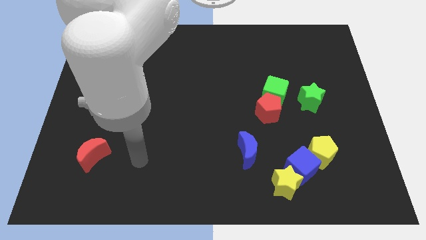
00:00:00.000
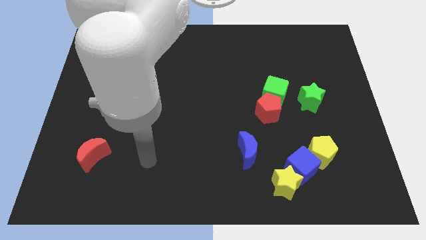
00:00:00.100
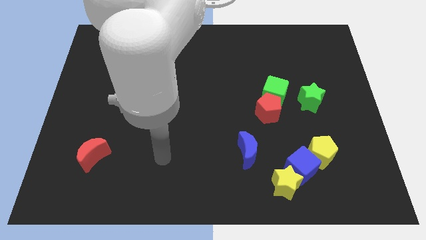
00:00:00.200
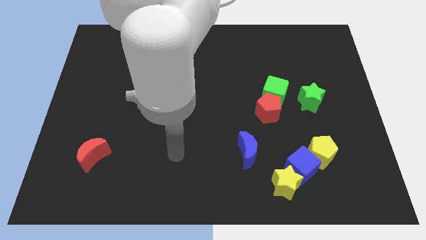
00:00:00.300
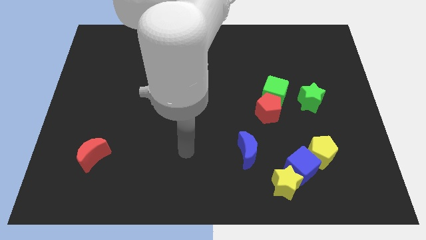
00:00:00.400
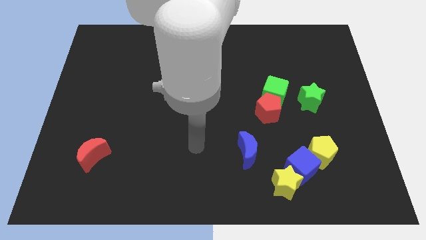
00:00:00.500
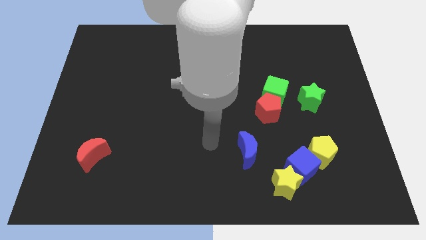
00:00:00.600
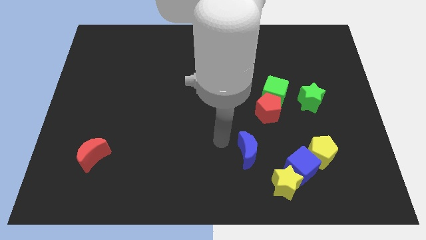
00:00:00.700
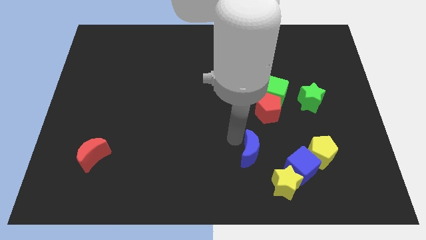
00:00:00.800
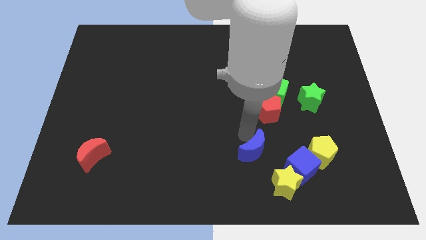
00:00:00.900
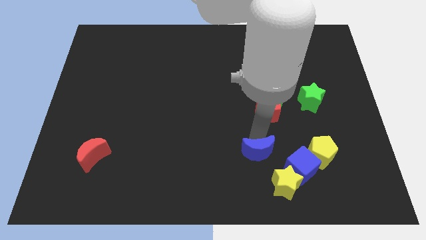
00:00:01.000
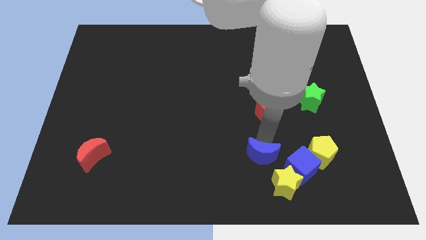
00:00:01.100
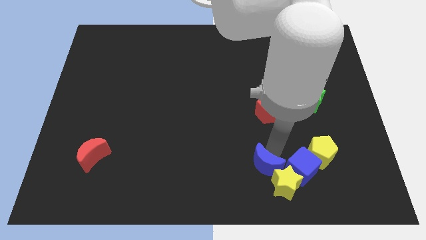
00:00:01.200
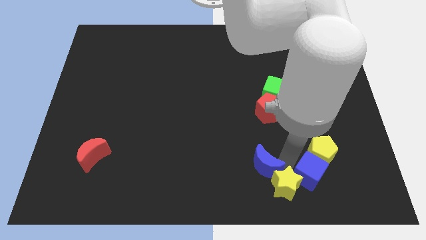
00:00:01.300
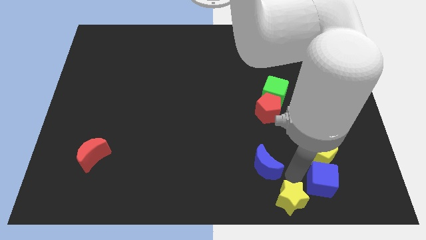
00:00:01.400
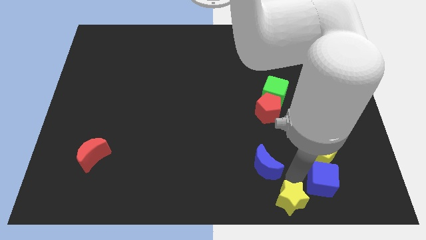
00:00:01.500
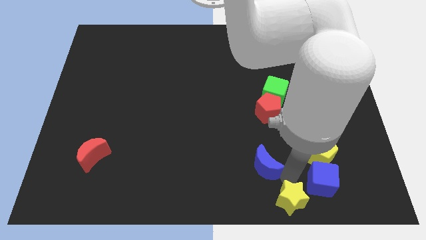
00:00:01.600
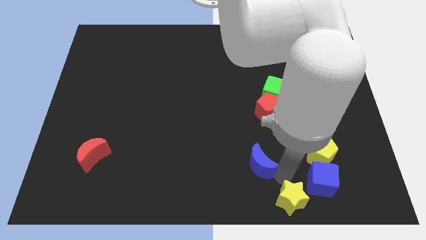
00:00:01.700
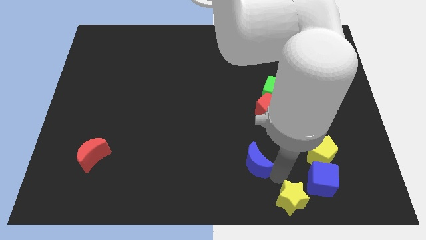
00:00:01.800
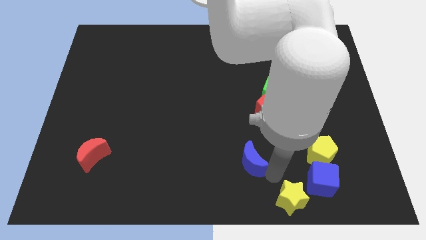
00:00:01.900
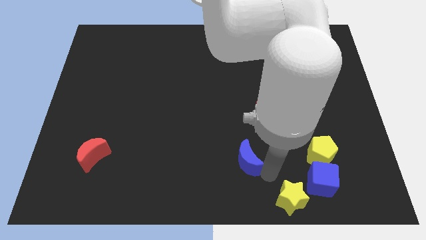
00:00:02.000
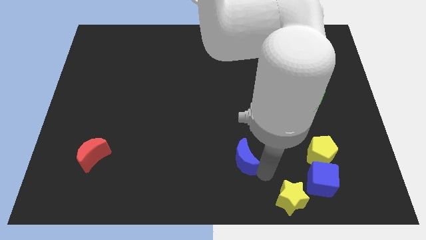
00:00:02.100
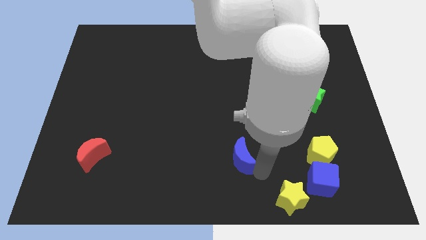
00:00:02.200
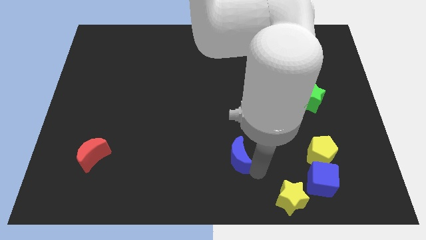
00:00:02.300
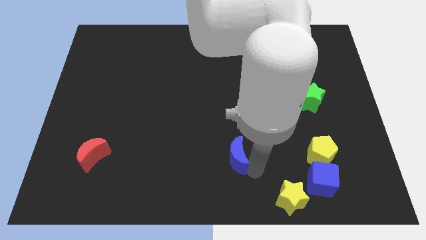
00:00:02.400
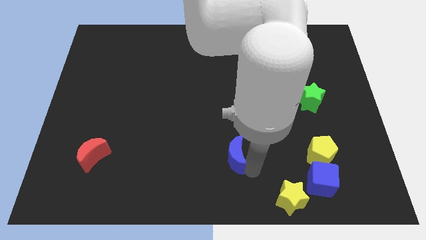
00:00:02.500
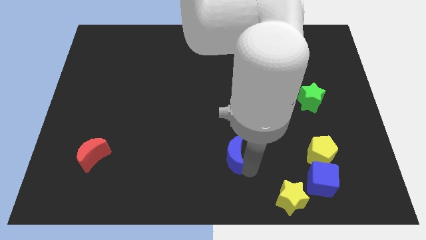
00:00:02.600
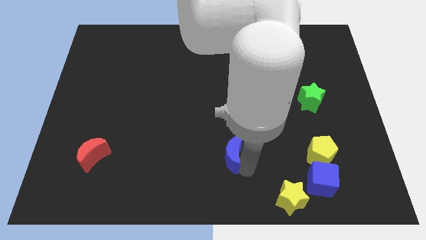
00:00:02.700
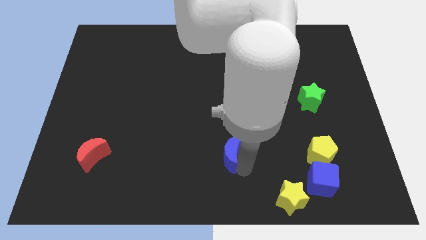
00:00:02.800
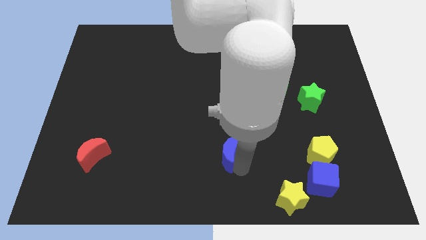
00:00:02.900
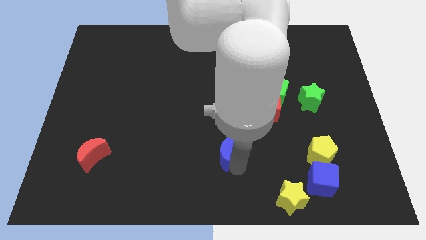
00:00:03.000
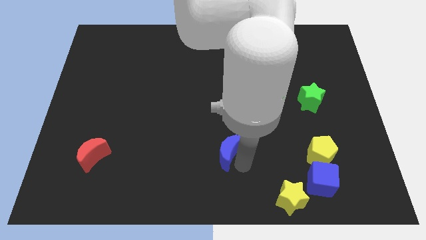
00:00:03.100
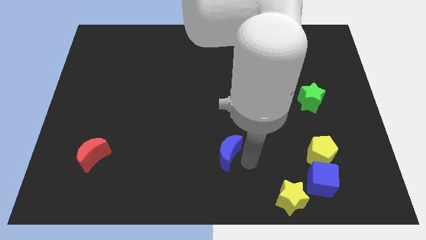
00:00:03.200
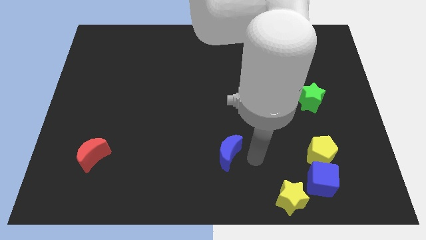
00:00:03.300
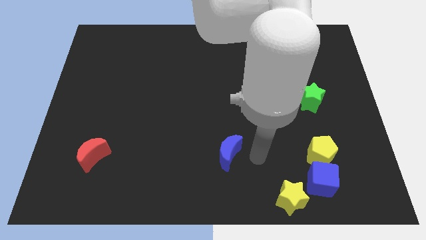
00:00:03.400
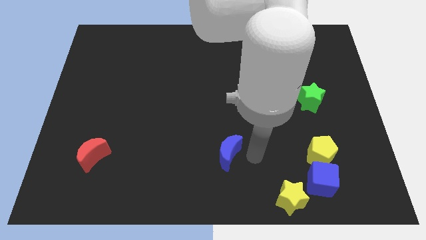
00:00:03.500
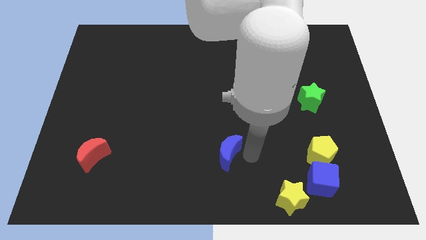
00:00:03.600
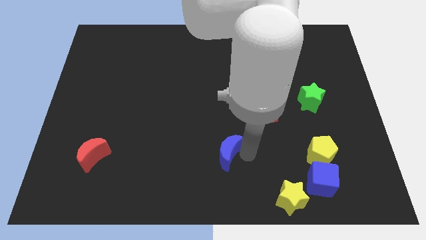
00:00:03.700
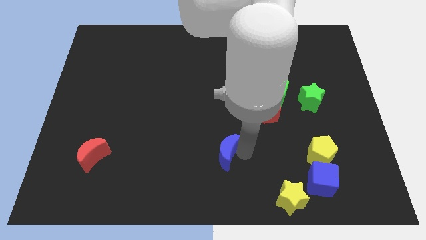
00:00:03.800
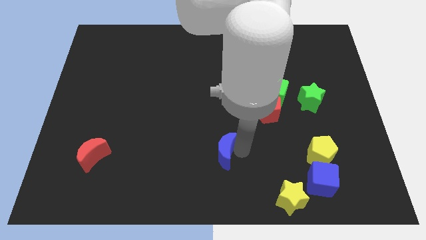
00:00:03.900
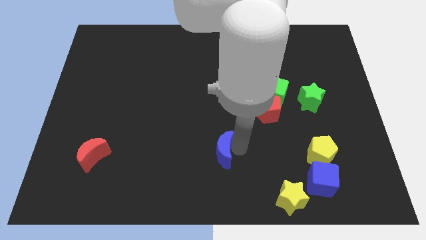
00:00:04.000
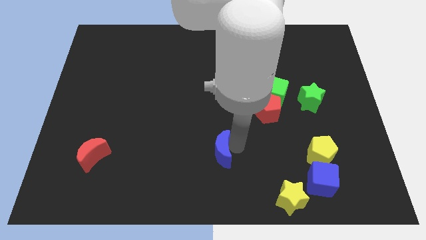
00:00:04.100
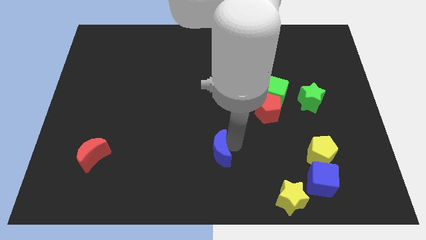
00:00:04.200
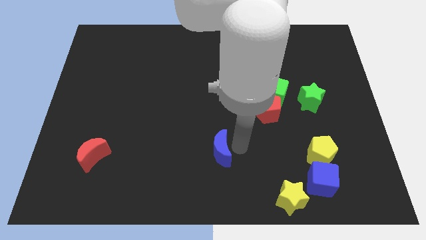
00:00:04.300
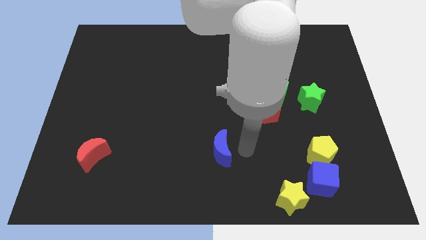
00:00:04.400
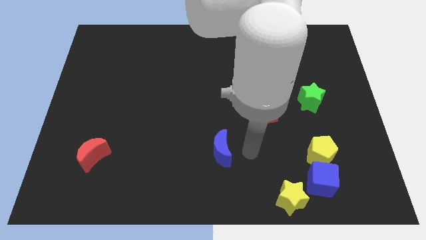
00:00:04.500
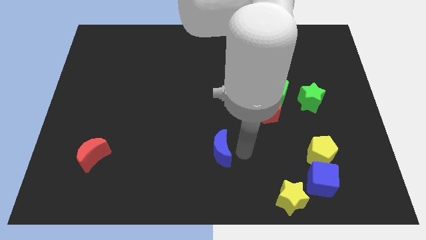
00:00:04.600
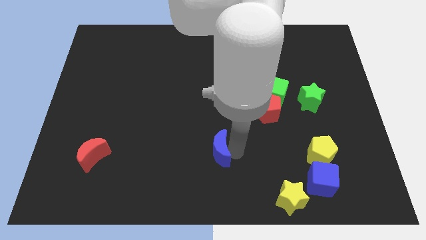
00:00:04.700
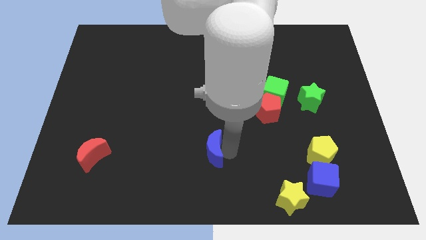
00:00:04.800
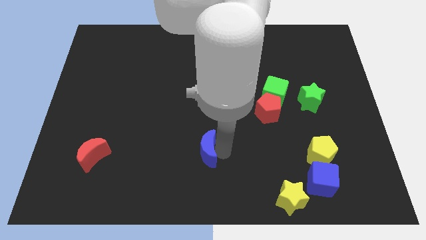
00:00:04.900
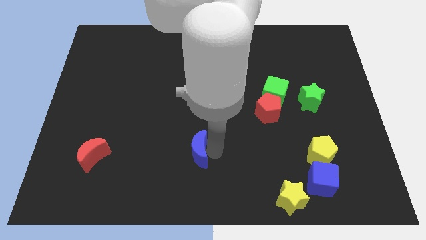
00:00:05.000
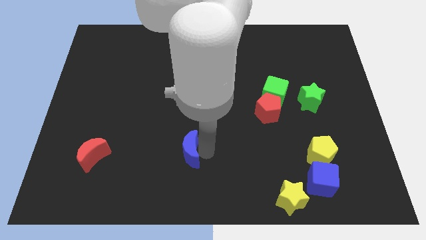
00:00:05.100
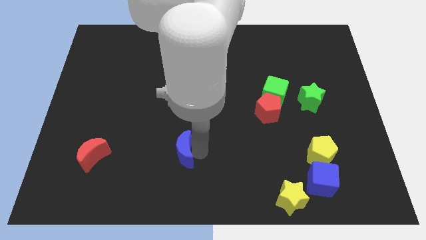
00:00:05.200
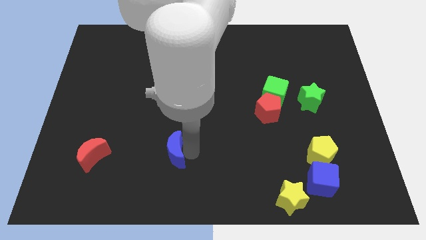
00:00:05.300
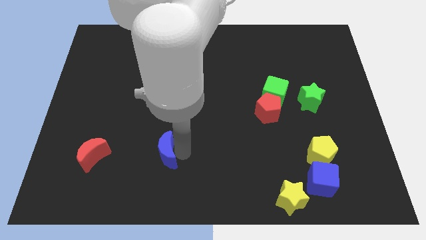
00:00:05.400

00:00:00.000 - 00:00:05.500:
push the blue moon just right of the red moon

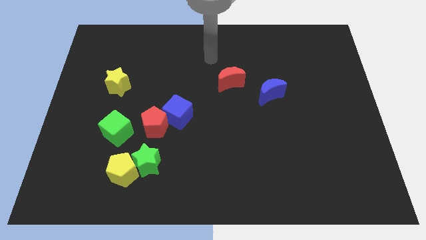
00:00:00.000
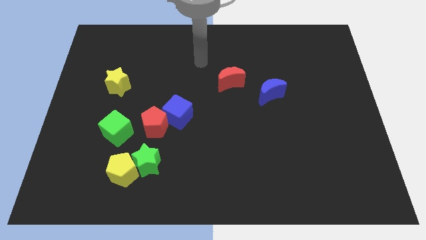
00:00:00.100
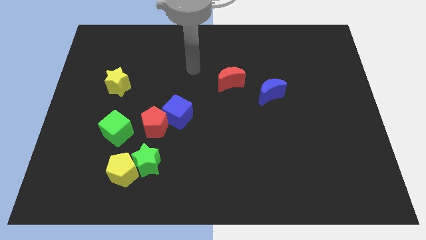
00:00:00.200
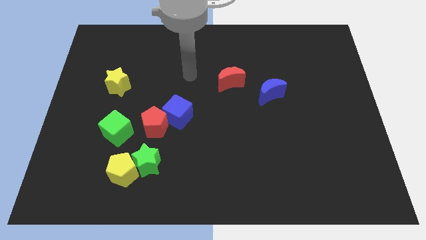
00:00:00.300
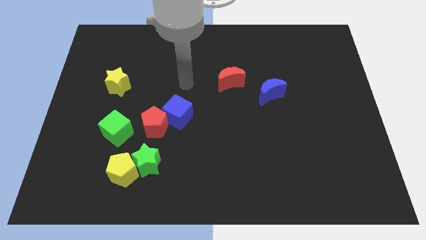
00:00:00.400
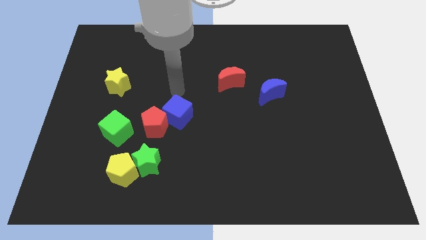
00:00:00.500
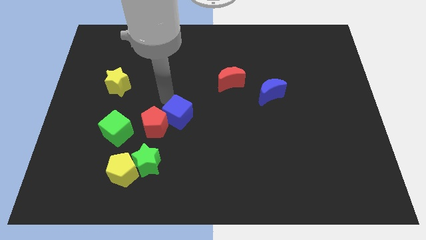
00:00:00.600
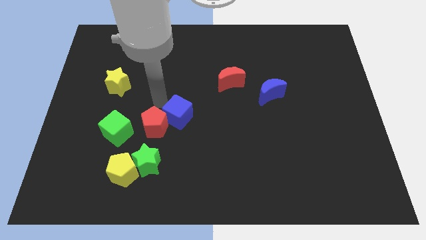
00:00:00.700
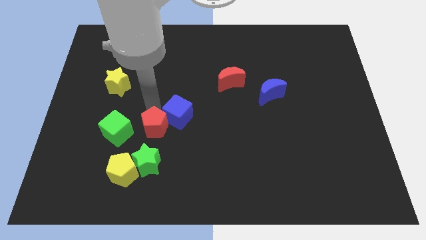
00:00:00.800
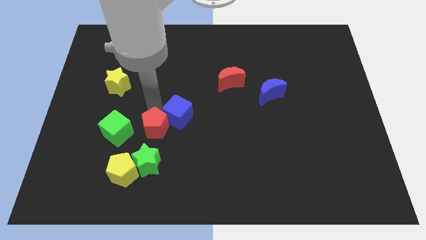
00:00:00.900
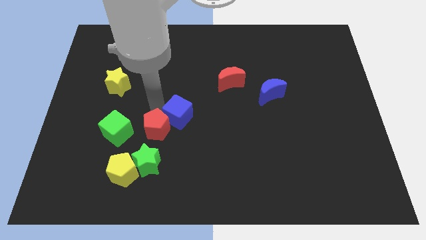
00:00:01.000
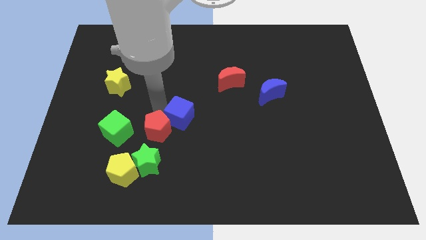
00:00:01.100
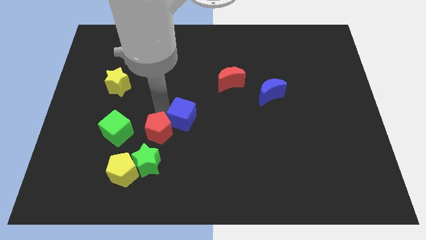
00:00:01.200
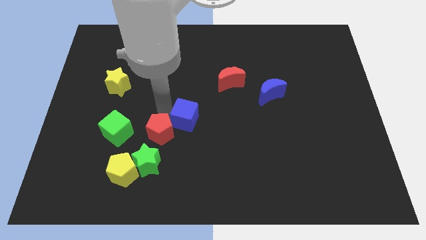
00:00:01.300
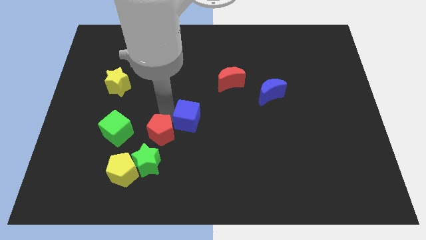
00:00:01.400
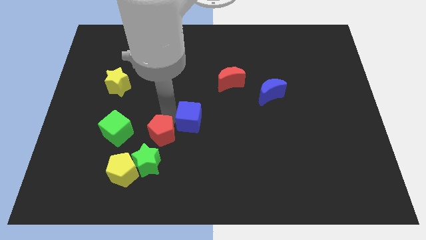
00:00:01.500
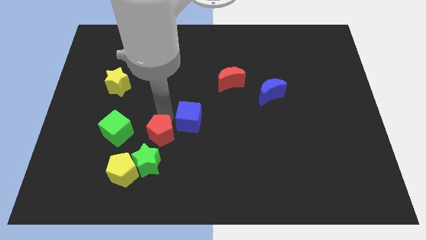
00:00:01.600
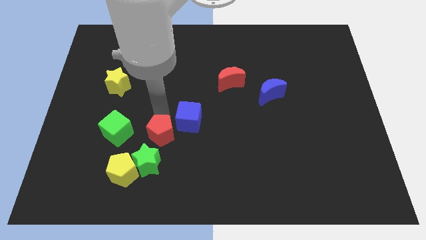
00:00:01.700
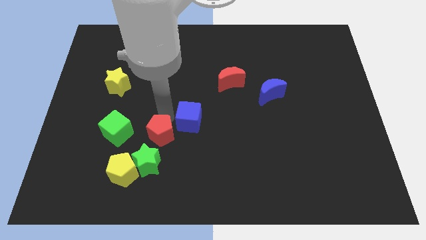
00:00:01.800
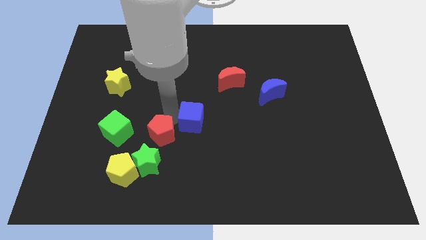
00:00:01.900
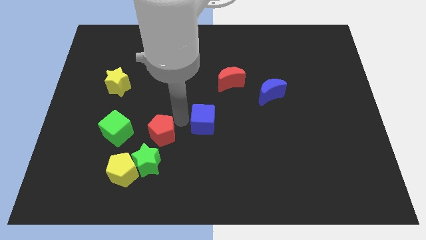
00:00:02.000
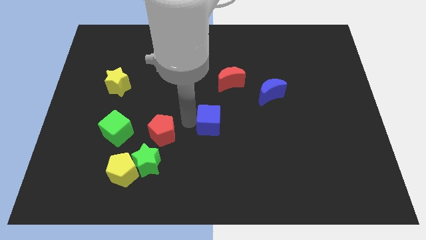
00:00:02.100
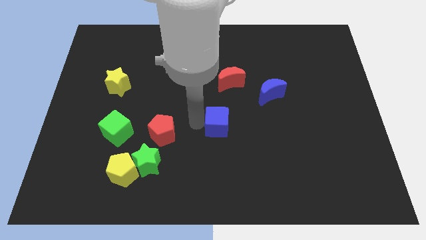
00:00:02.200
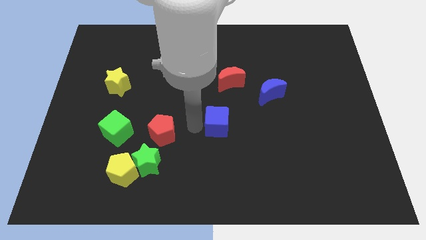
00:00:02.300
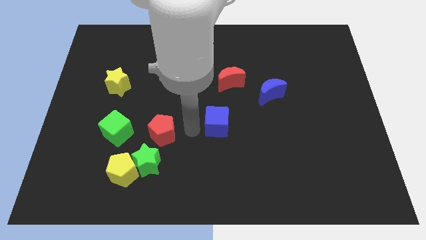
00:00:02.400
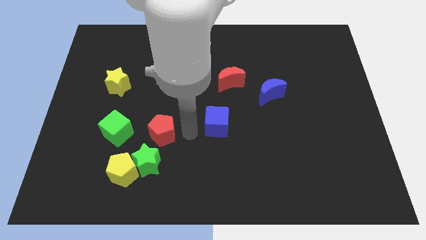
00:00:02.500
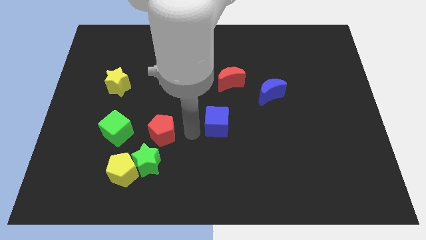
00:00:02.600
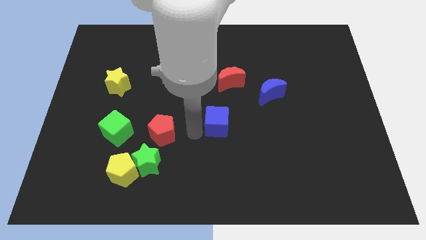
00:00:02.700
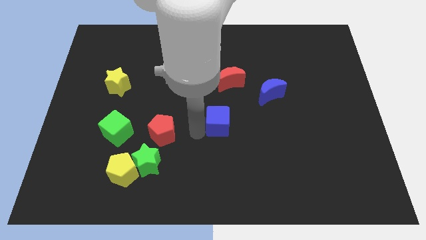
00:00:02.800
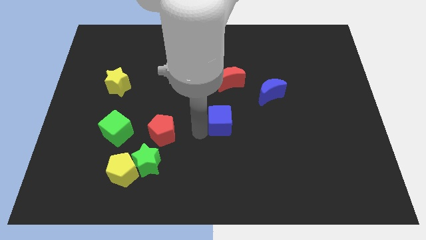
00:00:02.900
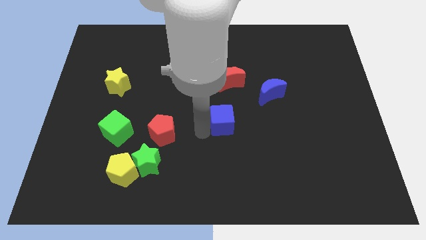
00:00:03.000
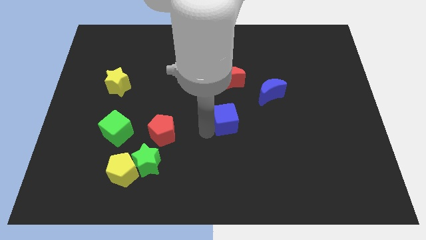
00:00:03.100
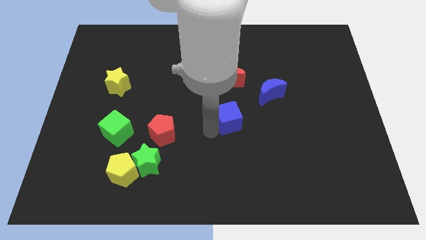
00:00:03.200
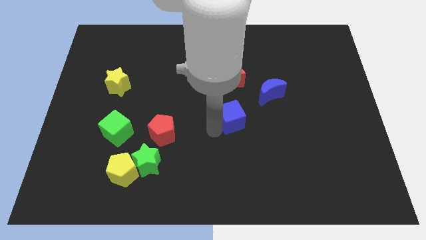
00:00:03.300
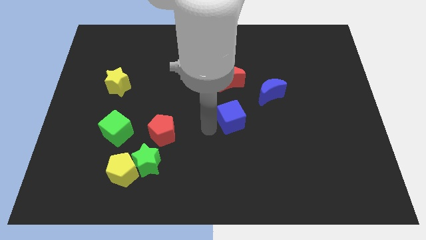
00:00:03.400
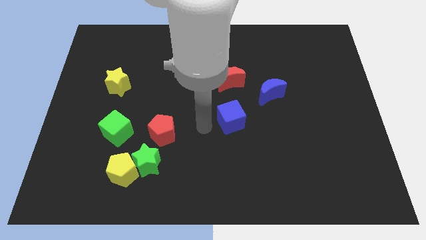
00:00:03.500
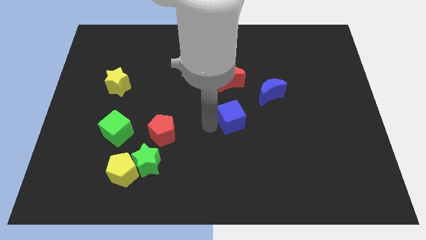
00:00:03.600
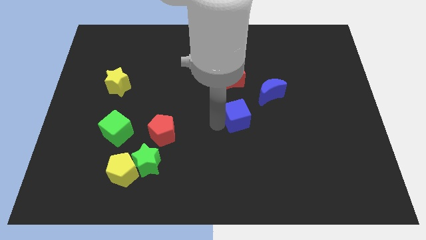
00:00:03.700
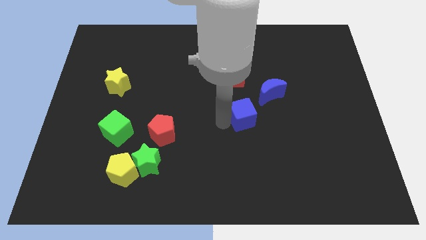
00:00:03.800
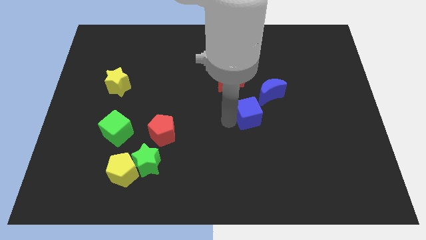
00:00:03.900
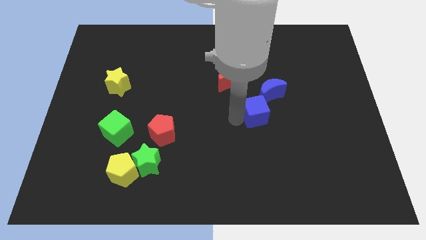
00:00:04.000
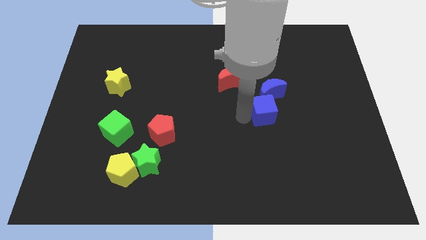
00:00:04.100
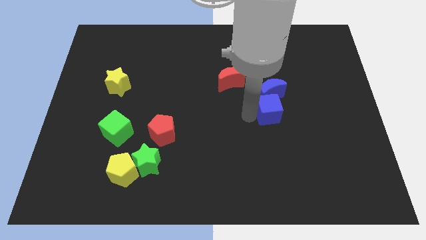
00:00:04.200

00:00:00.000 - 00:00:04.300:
put the blue cube to the bottom right side of the blue moon
